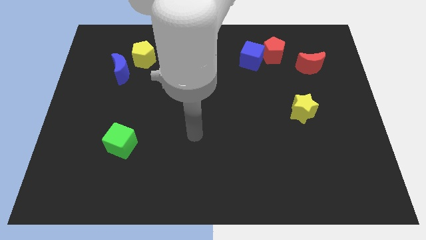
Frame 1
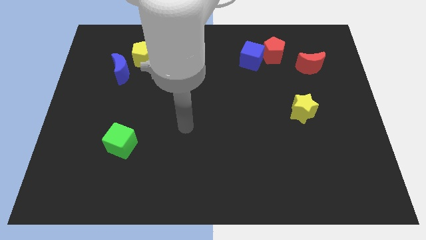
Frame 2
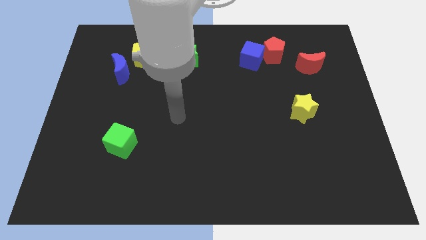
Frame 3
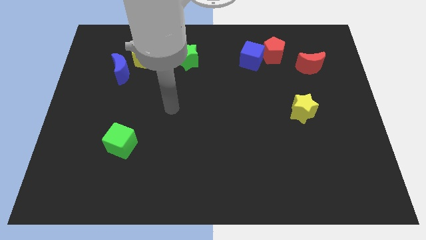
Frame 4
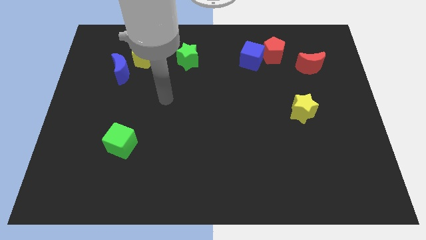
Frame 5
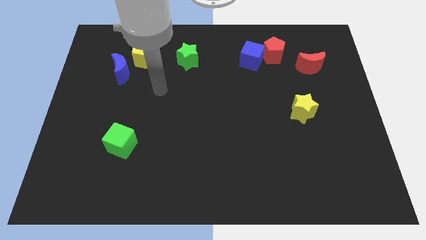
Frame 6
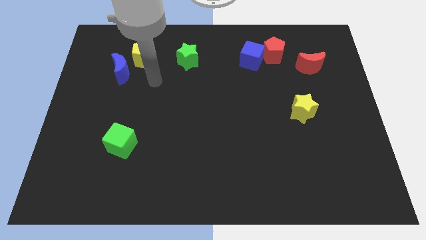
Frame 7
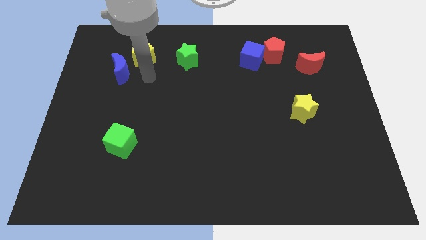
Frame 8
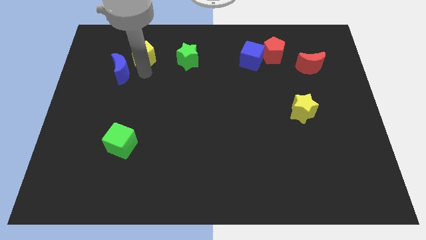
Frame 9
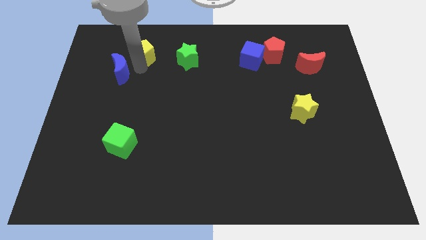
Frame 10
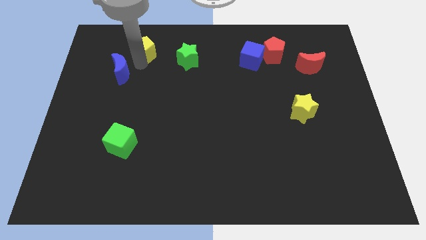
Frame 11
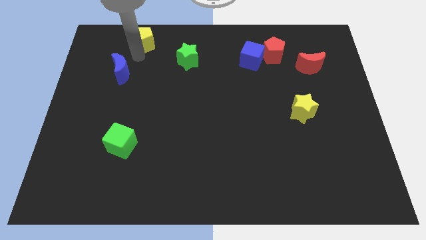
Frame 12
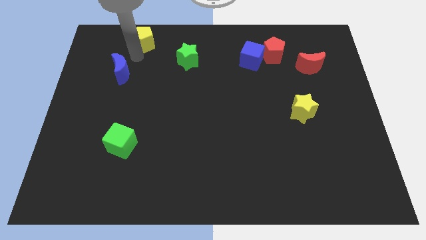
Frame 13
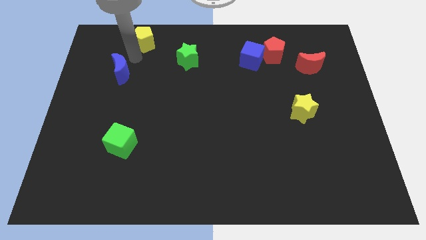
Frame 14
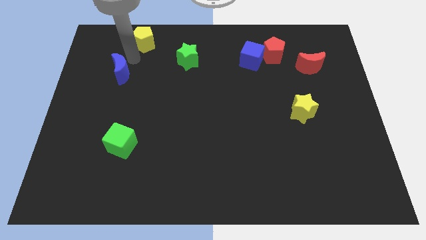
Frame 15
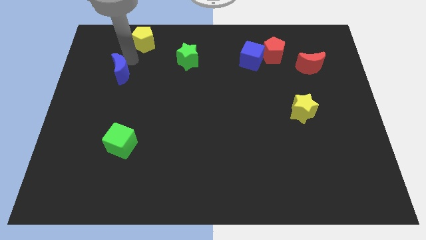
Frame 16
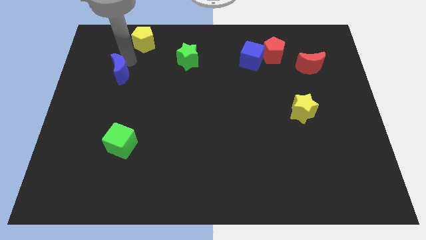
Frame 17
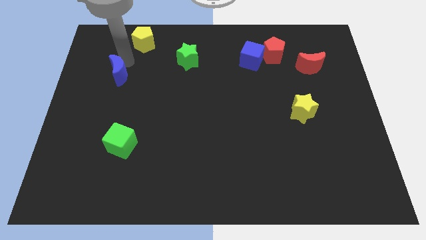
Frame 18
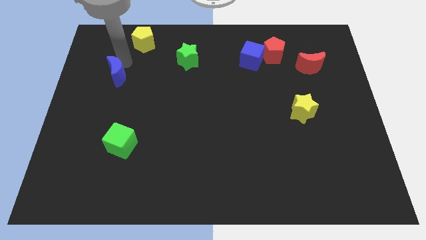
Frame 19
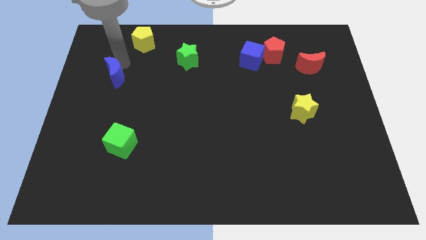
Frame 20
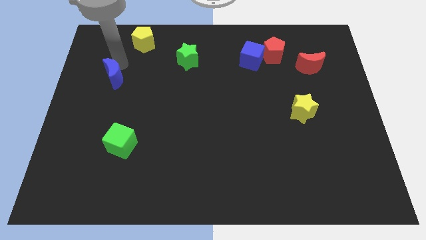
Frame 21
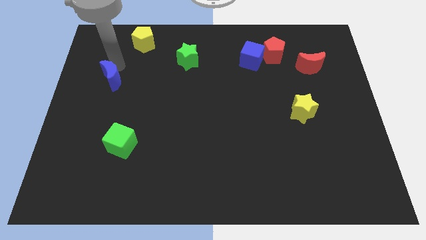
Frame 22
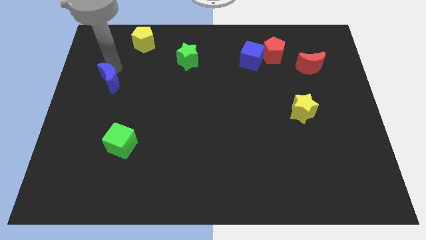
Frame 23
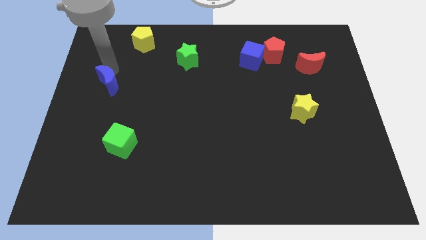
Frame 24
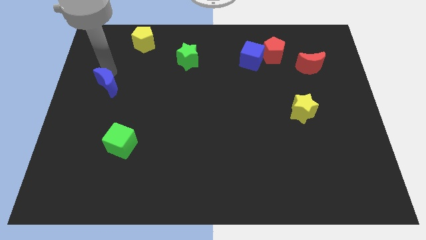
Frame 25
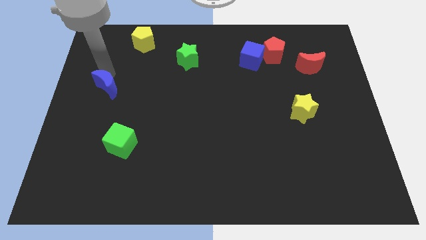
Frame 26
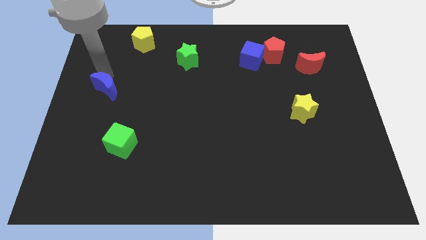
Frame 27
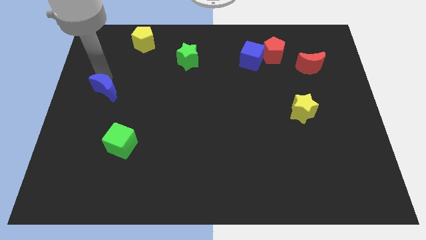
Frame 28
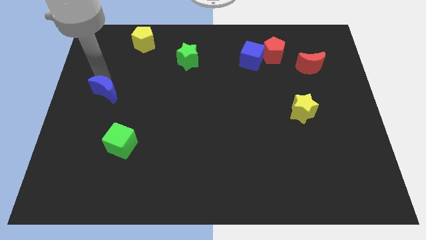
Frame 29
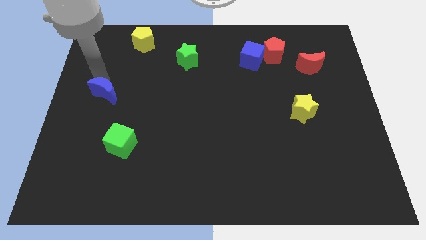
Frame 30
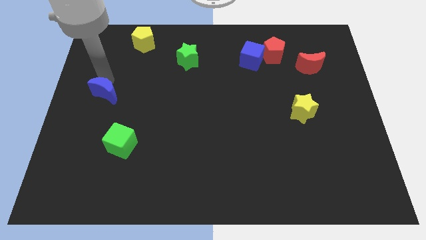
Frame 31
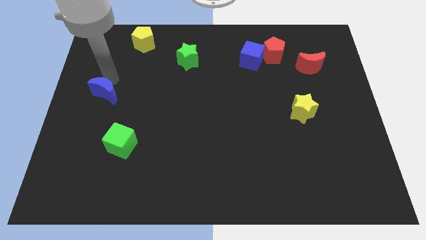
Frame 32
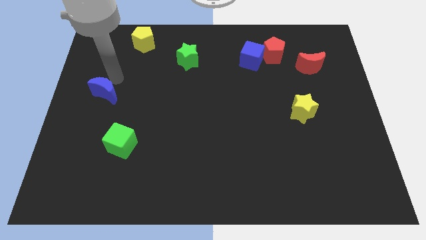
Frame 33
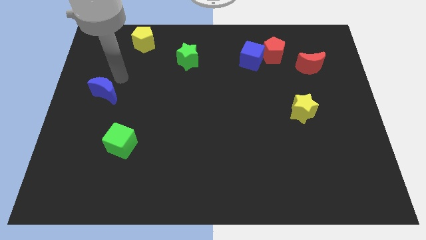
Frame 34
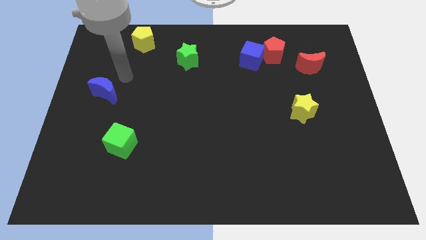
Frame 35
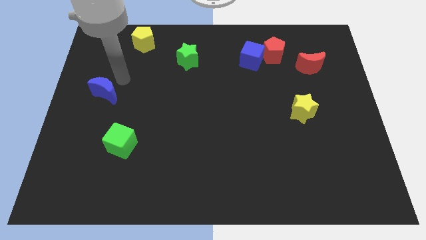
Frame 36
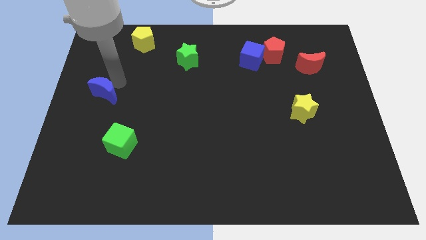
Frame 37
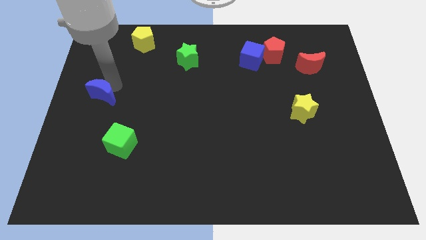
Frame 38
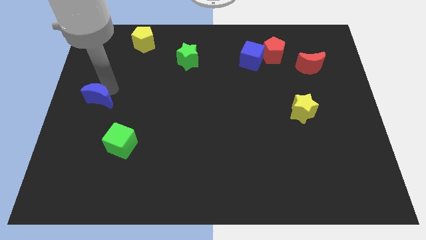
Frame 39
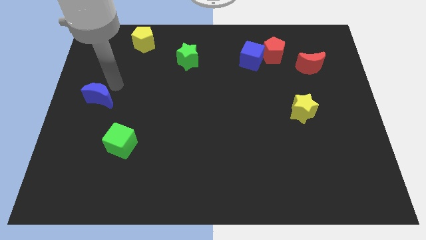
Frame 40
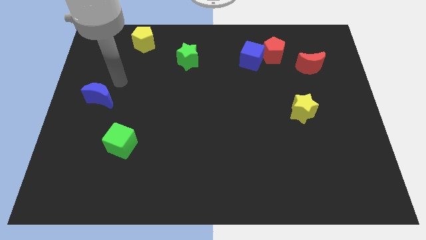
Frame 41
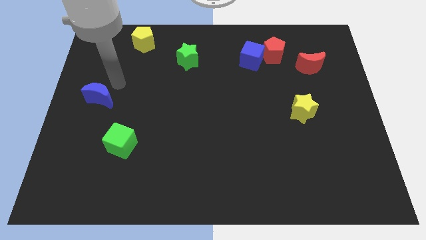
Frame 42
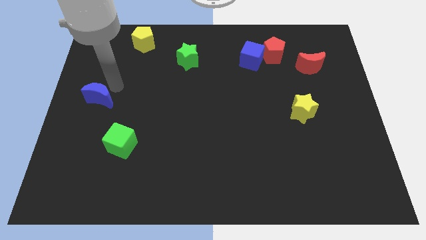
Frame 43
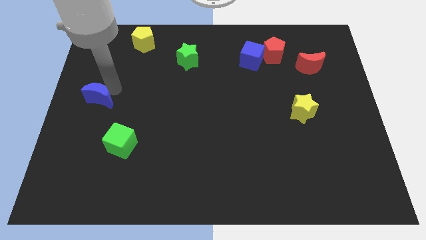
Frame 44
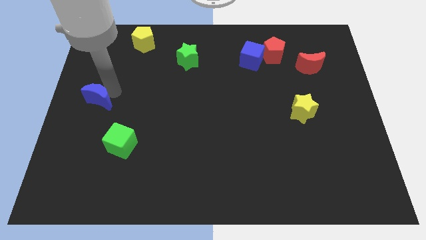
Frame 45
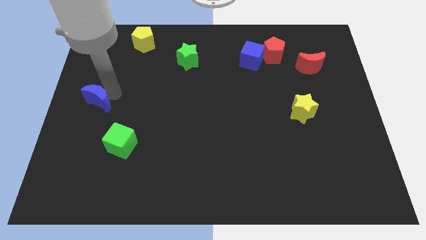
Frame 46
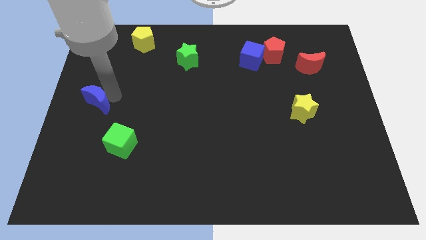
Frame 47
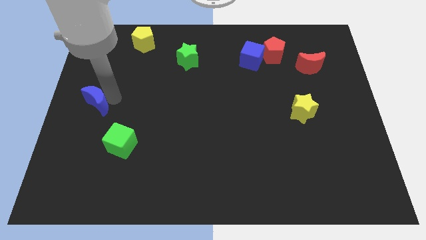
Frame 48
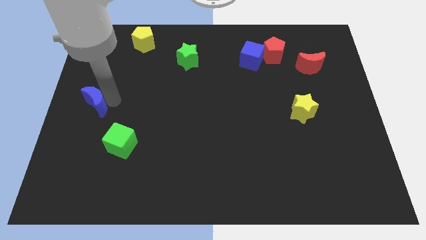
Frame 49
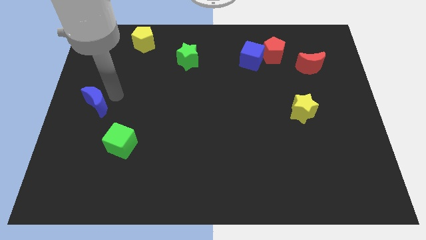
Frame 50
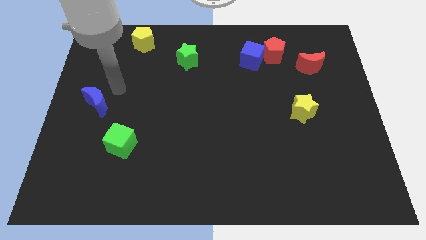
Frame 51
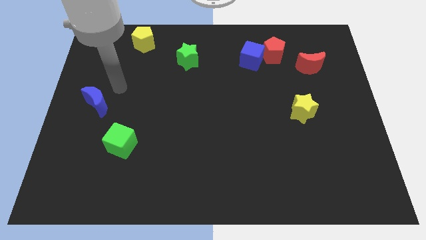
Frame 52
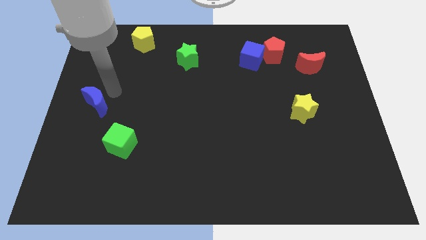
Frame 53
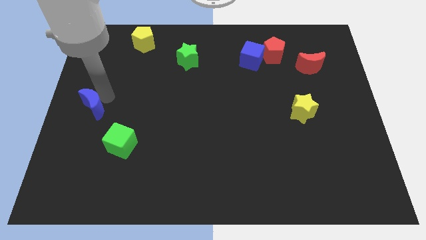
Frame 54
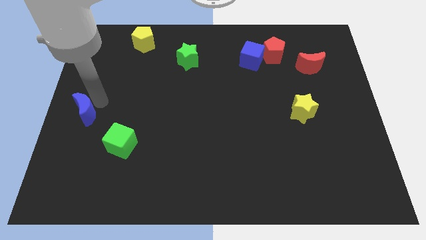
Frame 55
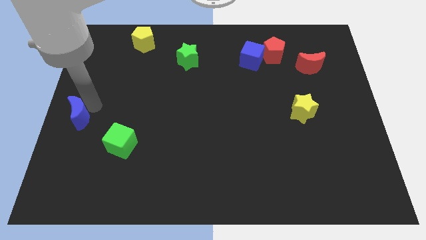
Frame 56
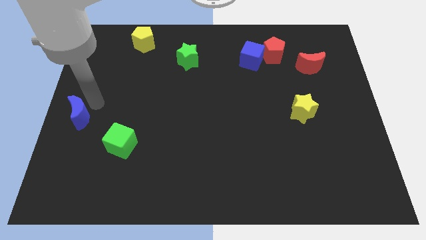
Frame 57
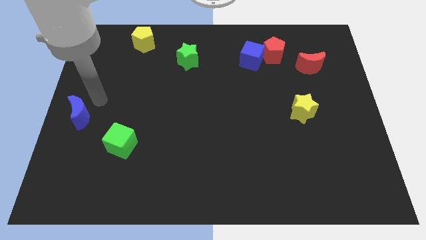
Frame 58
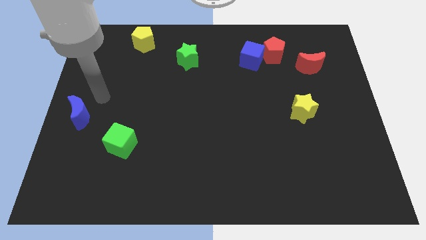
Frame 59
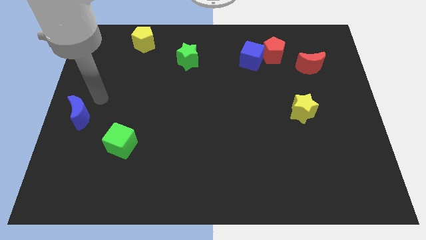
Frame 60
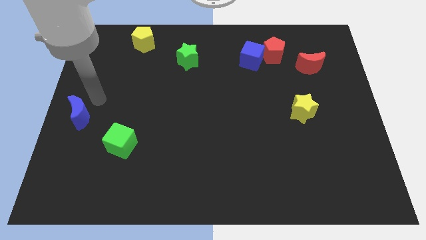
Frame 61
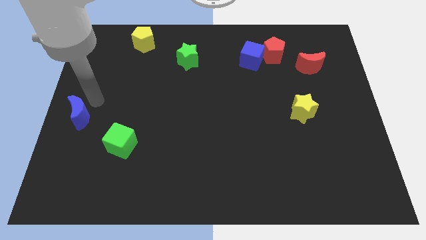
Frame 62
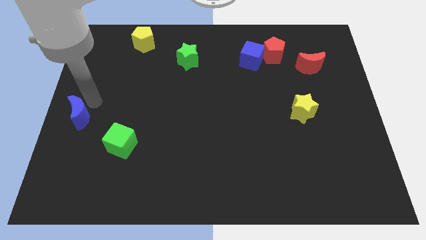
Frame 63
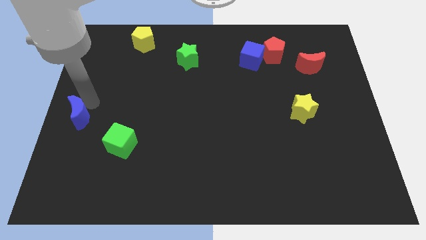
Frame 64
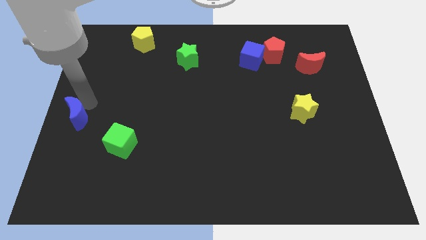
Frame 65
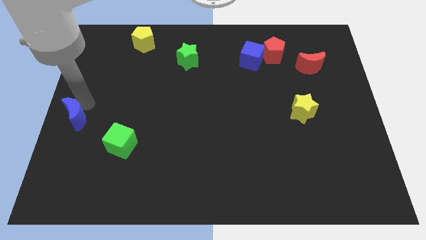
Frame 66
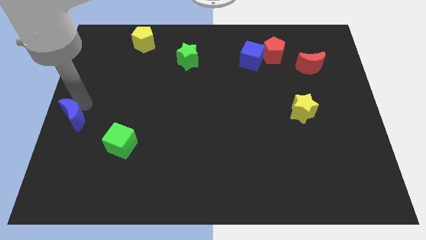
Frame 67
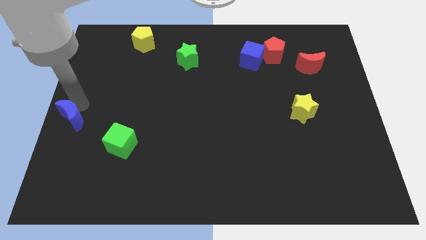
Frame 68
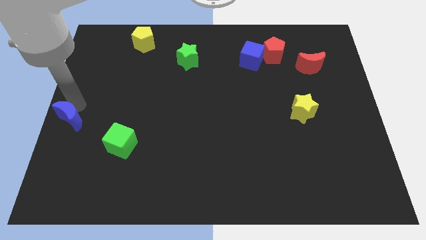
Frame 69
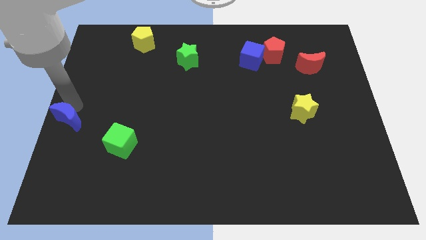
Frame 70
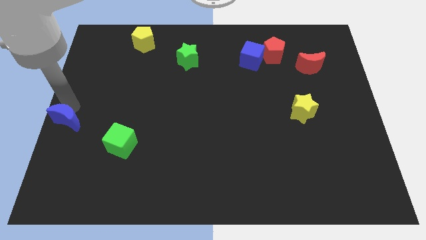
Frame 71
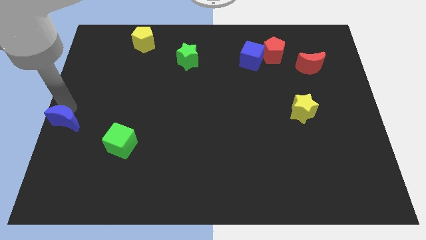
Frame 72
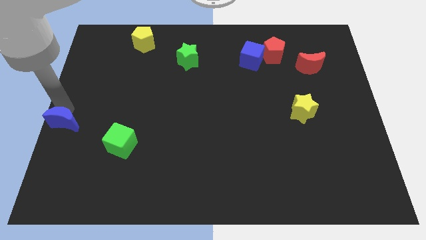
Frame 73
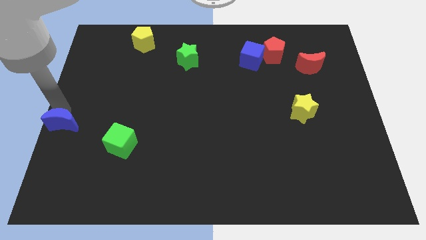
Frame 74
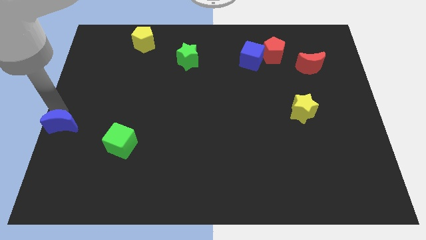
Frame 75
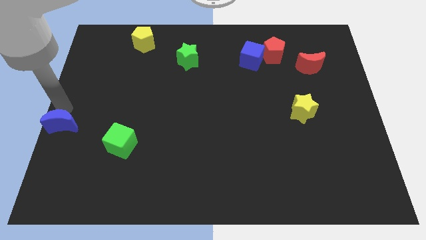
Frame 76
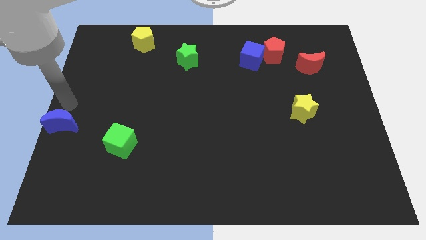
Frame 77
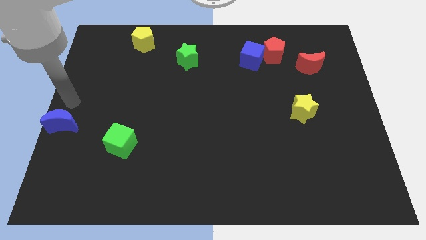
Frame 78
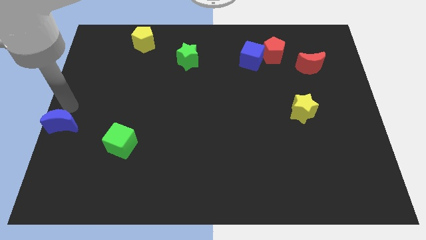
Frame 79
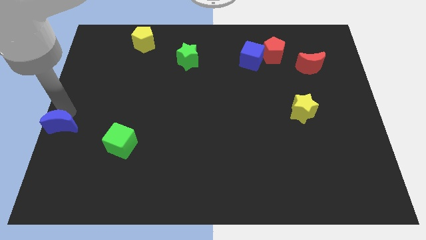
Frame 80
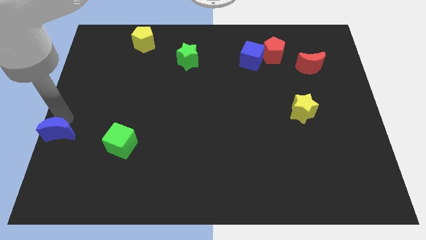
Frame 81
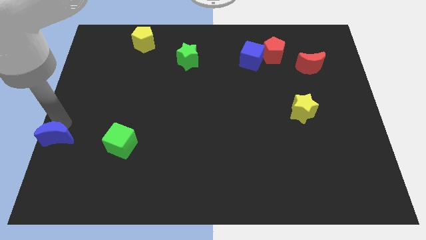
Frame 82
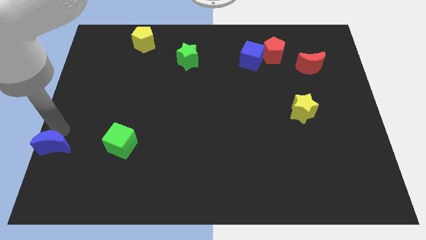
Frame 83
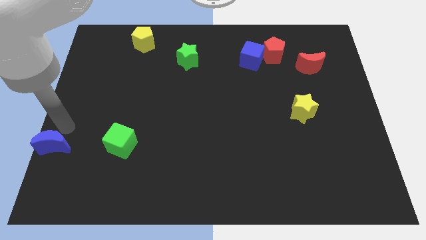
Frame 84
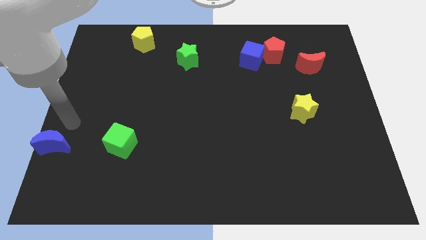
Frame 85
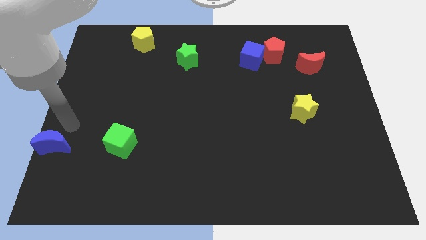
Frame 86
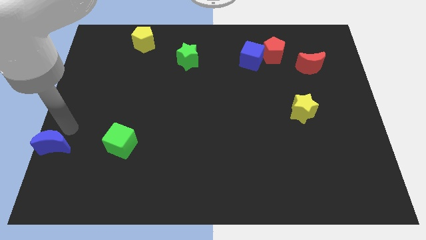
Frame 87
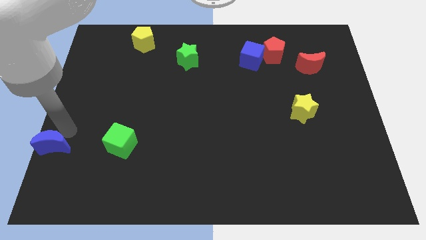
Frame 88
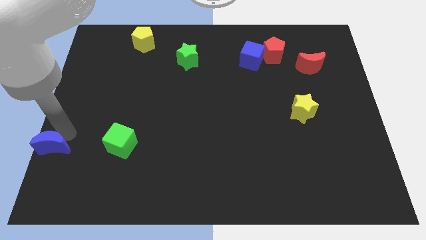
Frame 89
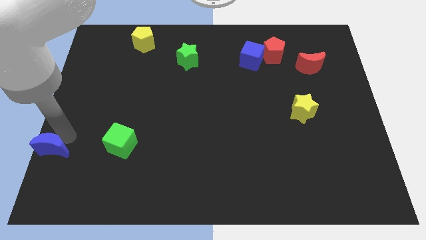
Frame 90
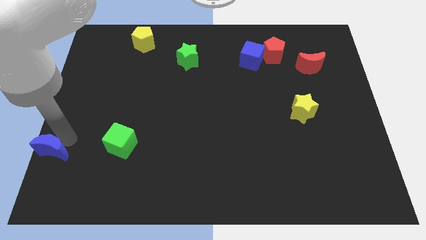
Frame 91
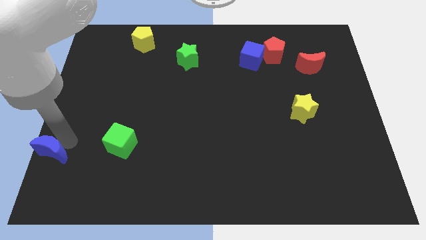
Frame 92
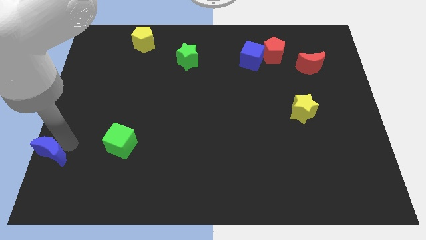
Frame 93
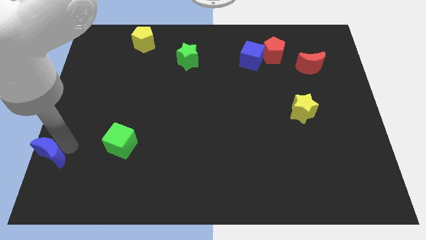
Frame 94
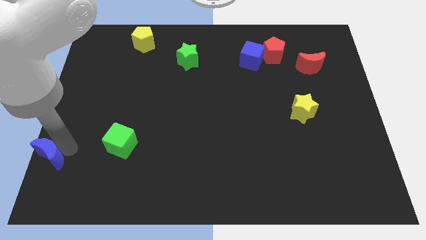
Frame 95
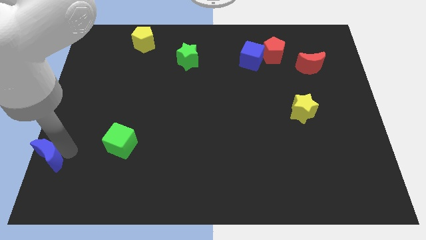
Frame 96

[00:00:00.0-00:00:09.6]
move the blue moon to the bottom left of the board
